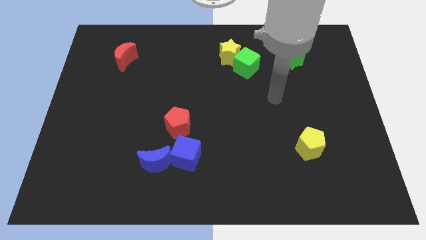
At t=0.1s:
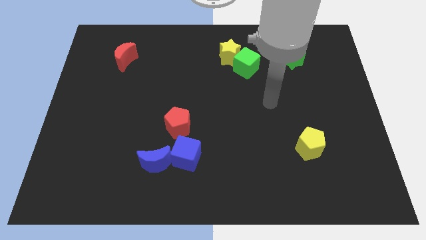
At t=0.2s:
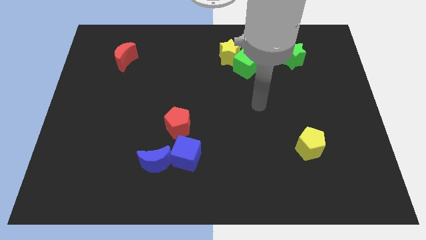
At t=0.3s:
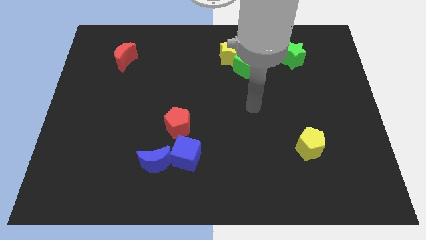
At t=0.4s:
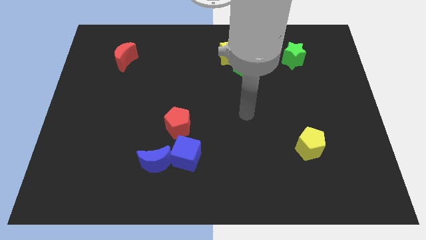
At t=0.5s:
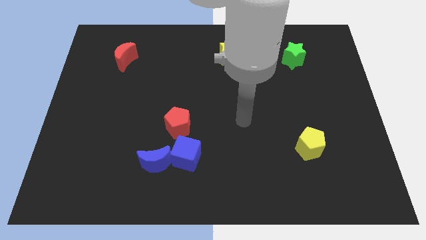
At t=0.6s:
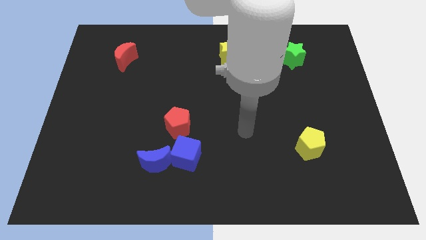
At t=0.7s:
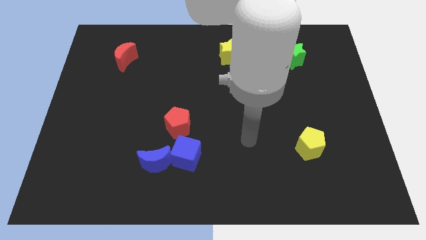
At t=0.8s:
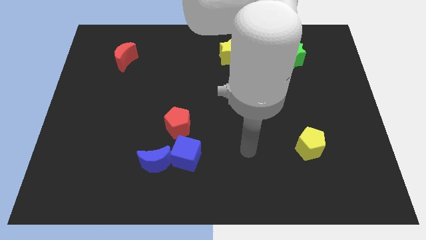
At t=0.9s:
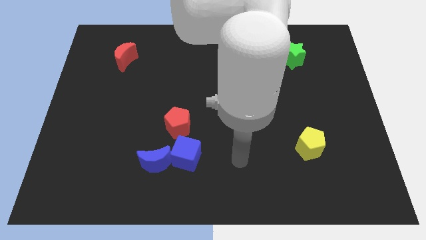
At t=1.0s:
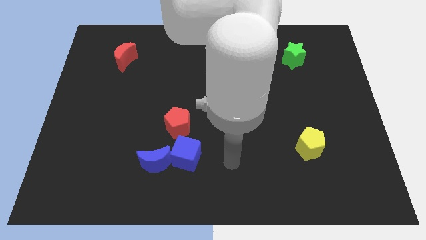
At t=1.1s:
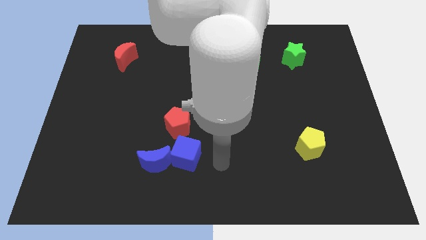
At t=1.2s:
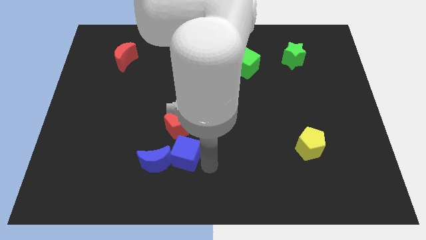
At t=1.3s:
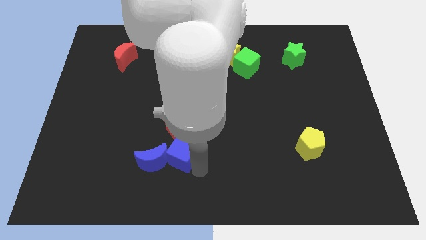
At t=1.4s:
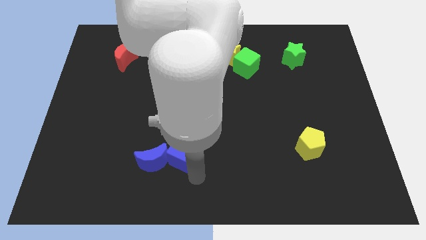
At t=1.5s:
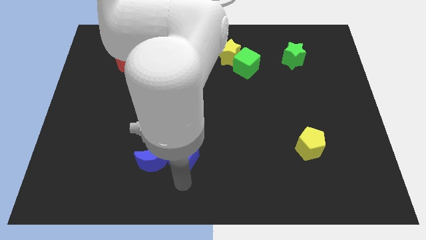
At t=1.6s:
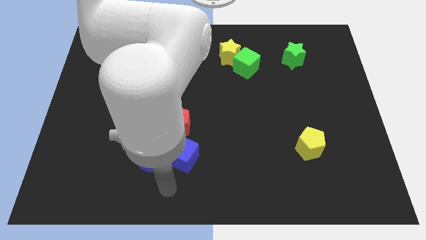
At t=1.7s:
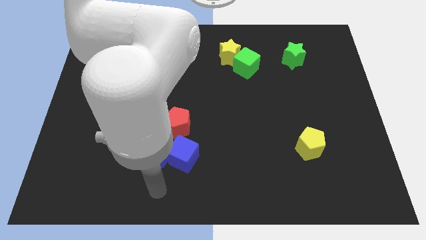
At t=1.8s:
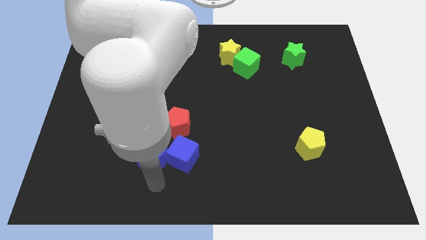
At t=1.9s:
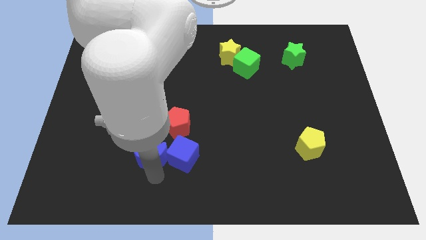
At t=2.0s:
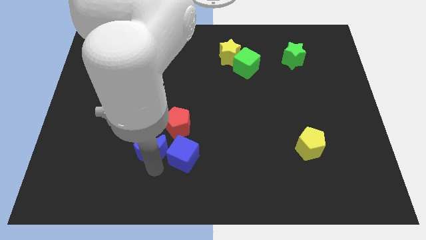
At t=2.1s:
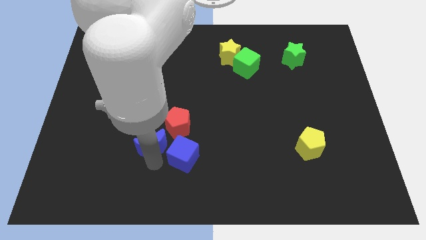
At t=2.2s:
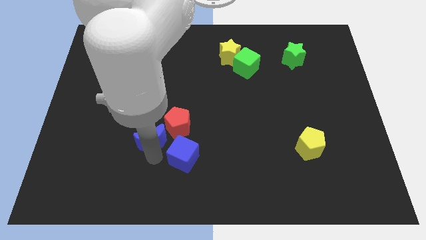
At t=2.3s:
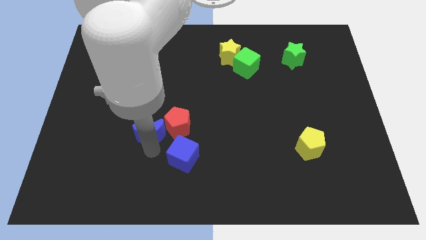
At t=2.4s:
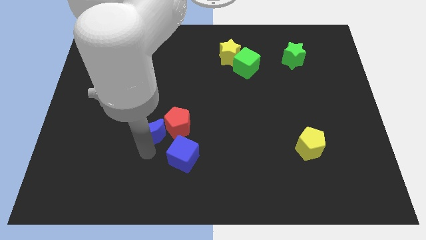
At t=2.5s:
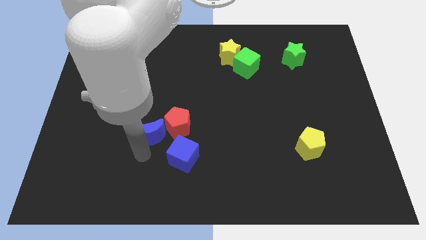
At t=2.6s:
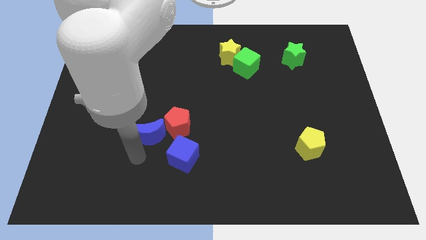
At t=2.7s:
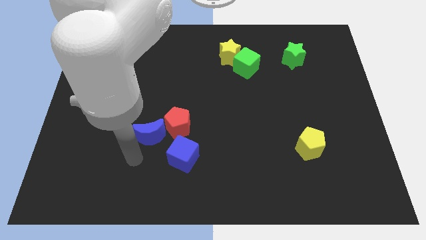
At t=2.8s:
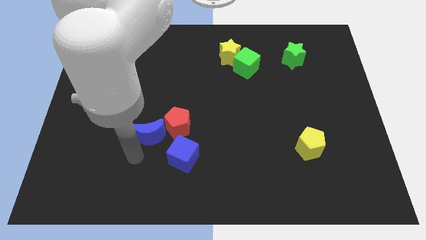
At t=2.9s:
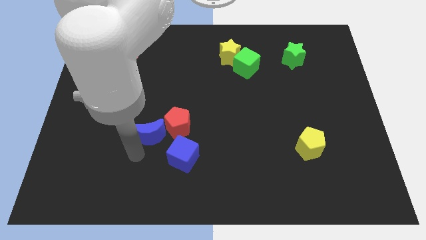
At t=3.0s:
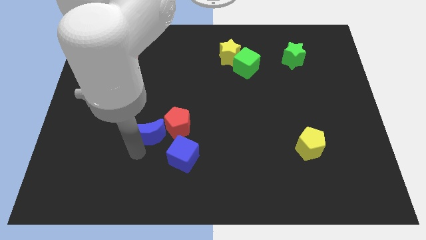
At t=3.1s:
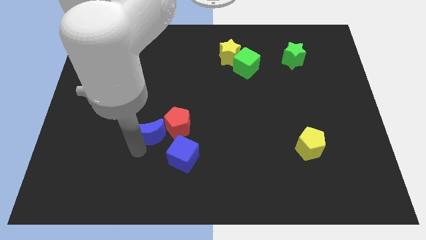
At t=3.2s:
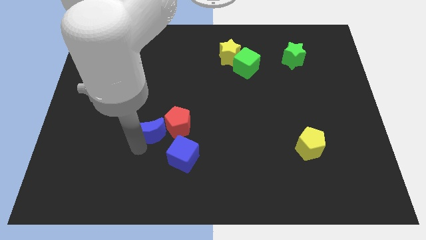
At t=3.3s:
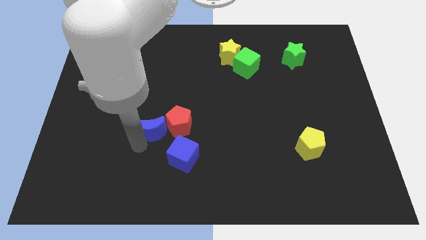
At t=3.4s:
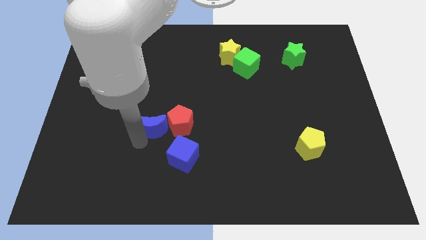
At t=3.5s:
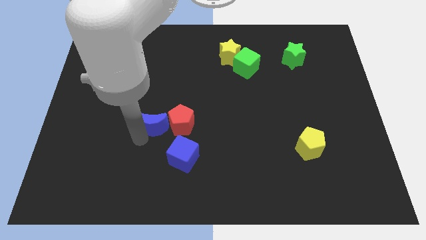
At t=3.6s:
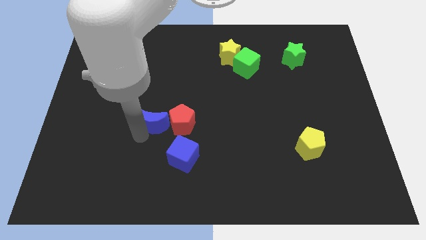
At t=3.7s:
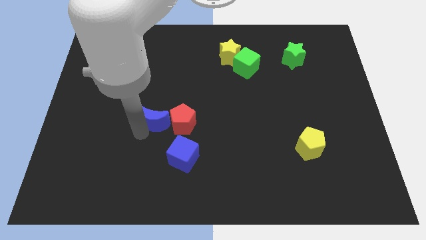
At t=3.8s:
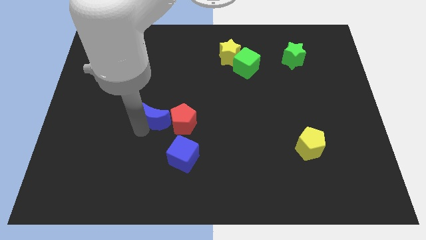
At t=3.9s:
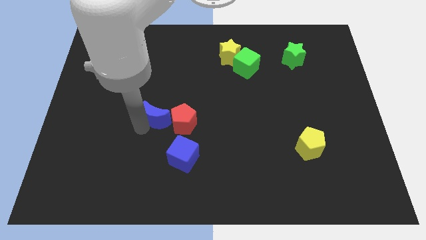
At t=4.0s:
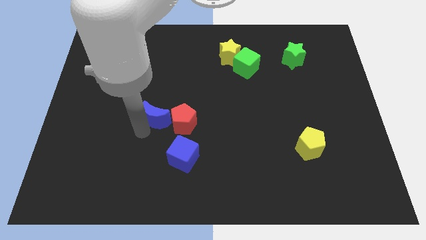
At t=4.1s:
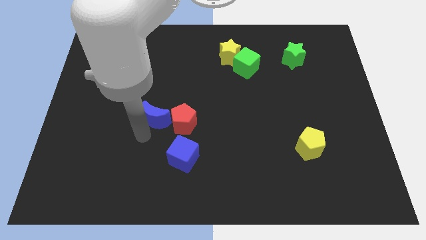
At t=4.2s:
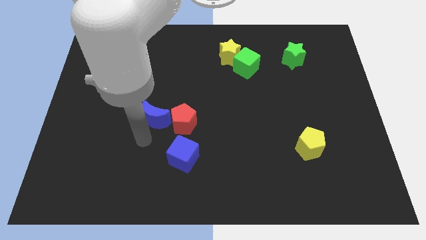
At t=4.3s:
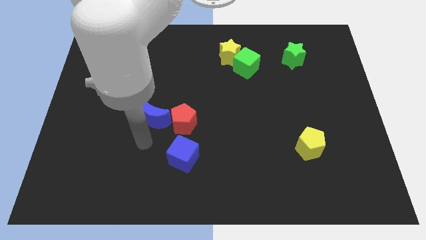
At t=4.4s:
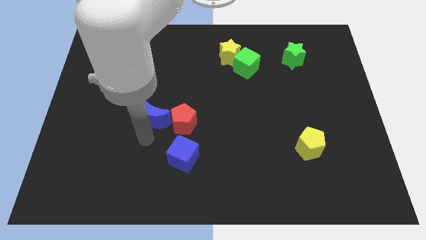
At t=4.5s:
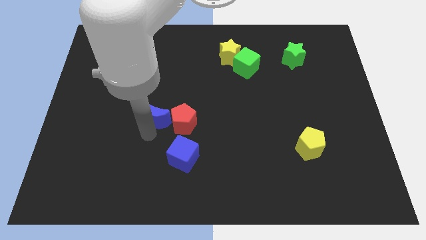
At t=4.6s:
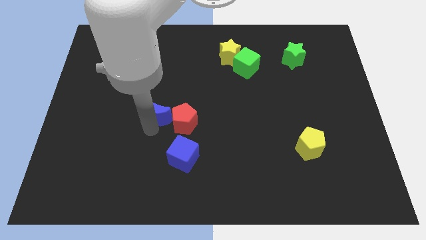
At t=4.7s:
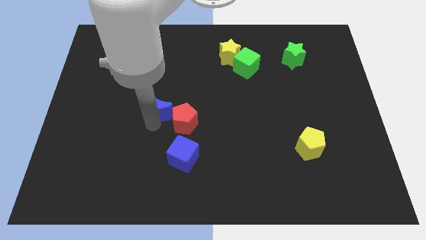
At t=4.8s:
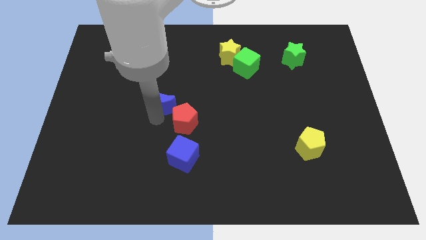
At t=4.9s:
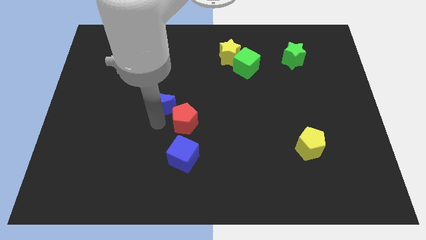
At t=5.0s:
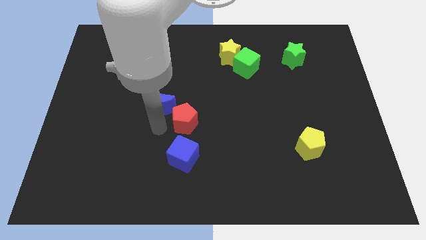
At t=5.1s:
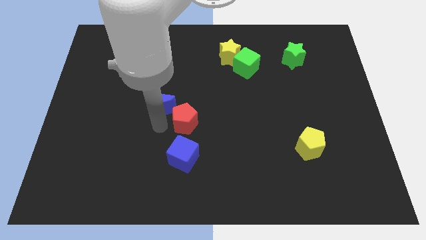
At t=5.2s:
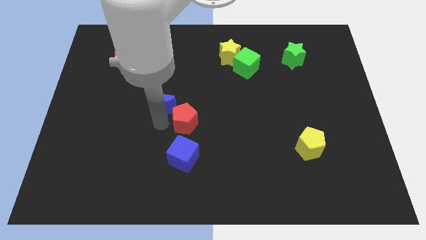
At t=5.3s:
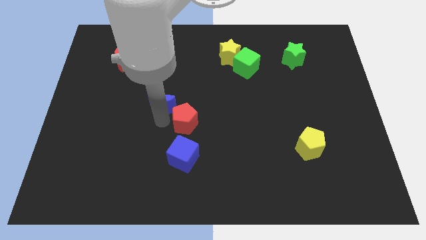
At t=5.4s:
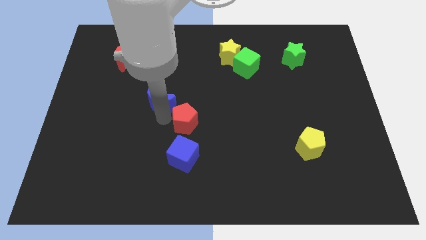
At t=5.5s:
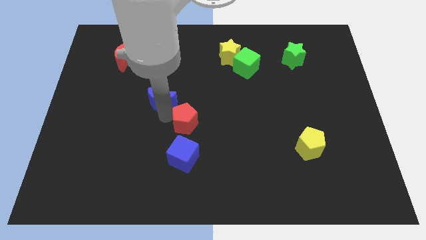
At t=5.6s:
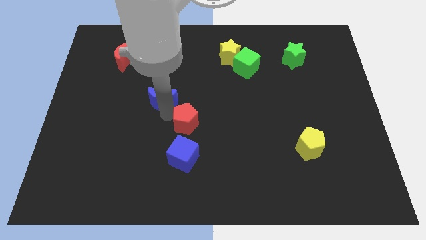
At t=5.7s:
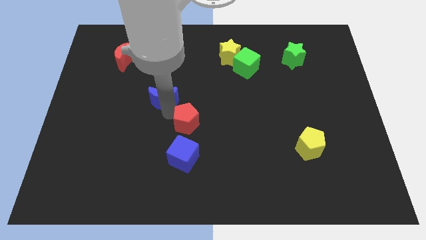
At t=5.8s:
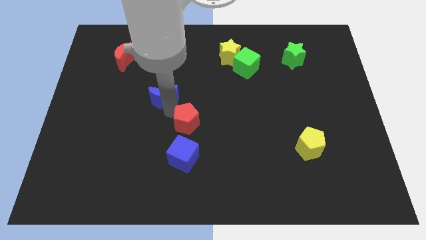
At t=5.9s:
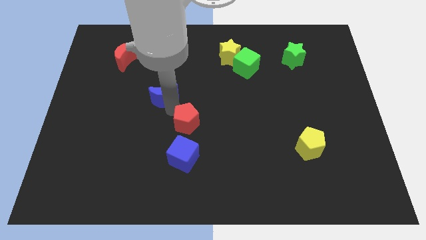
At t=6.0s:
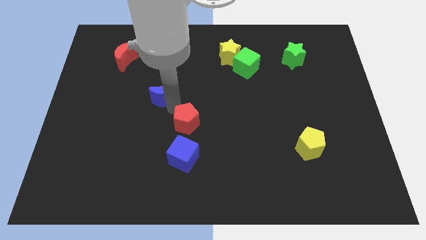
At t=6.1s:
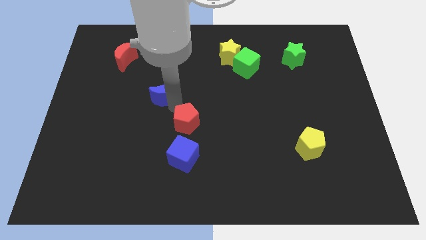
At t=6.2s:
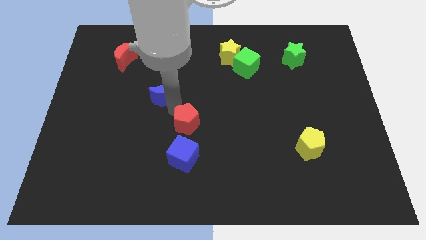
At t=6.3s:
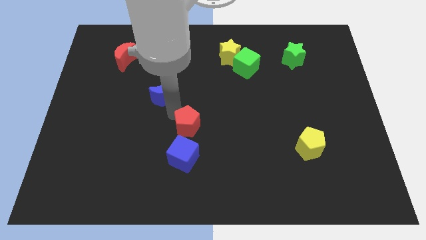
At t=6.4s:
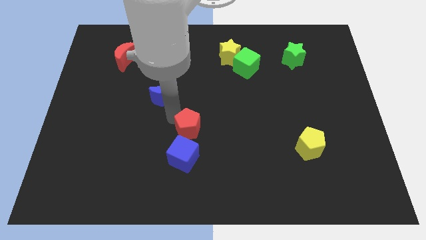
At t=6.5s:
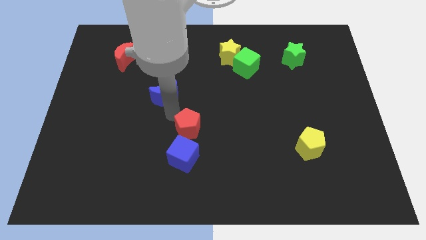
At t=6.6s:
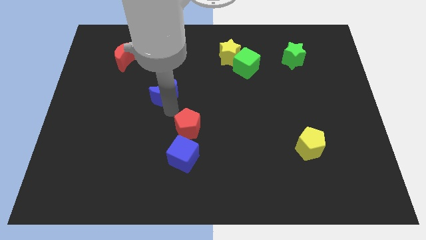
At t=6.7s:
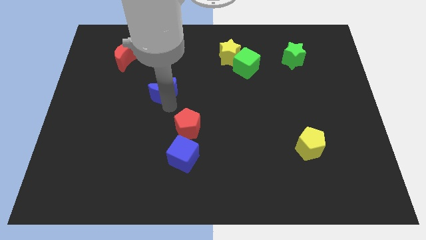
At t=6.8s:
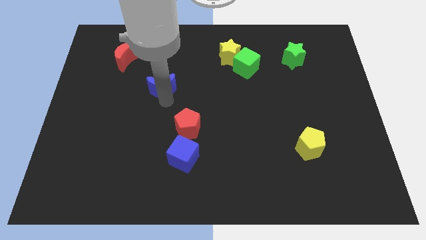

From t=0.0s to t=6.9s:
push the blue moon upwards

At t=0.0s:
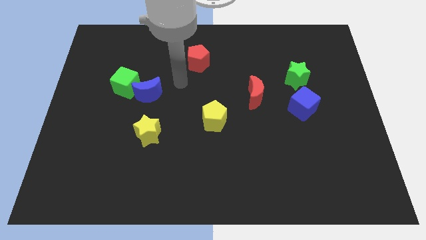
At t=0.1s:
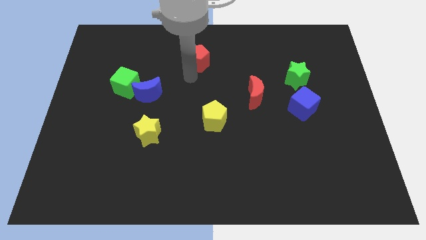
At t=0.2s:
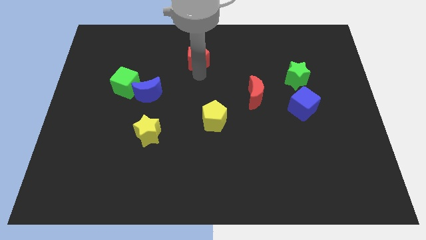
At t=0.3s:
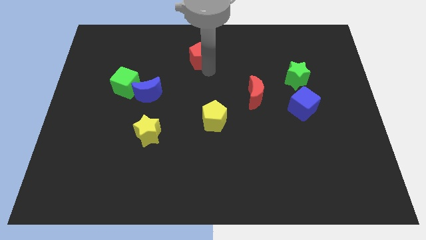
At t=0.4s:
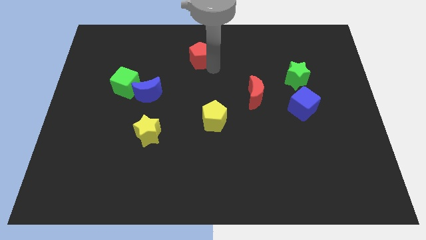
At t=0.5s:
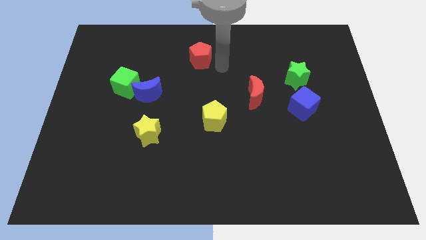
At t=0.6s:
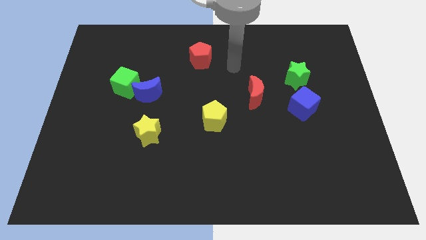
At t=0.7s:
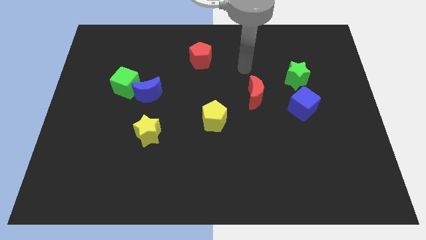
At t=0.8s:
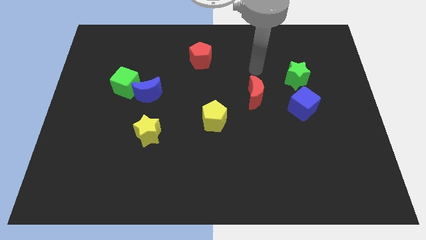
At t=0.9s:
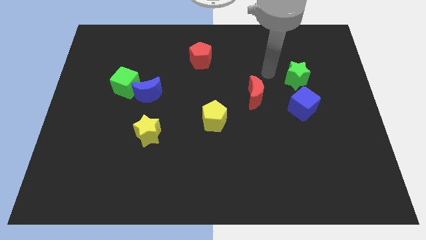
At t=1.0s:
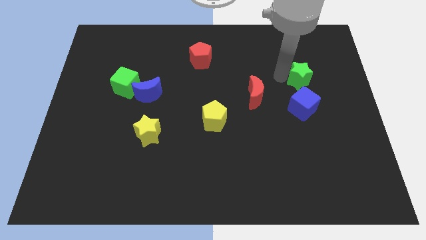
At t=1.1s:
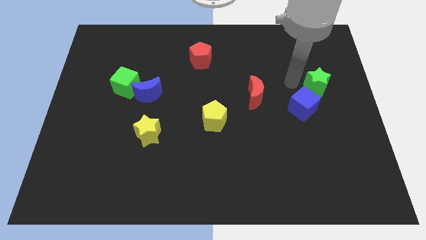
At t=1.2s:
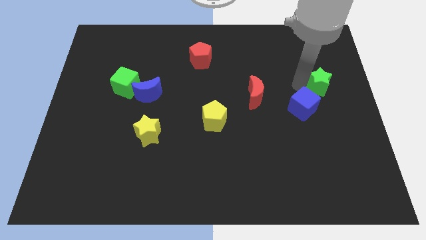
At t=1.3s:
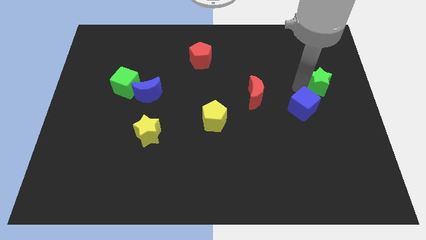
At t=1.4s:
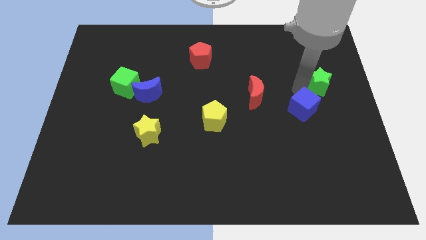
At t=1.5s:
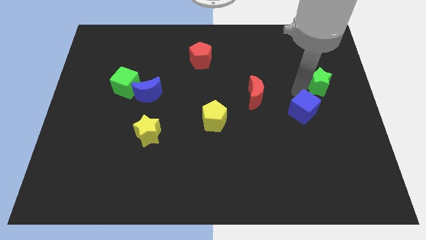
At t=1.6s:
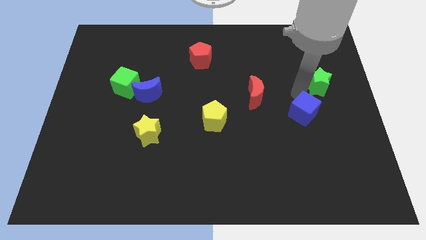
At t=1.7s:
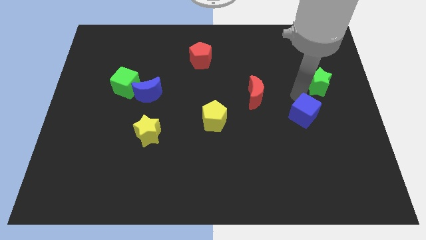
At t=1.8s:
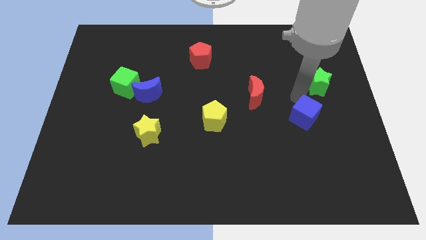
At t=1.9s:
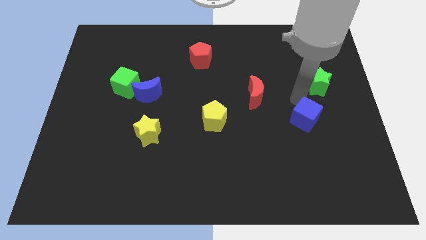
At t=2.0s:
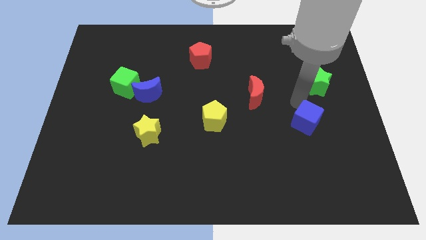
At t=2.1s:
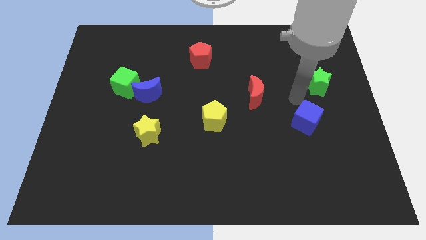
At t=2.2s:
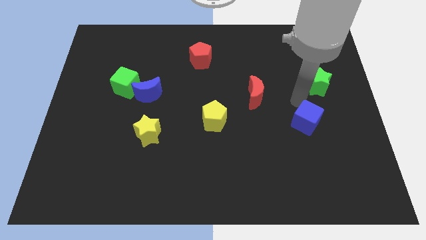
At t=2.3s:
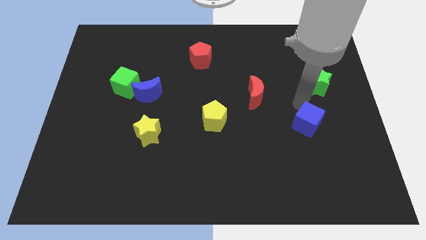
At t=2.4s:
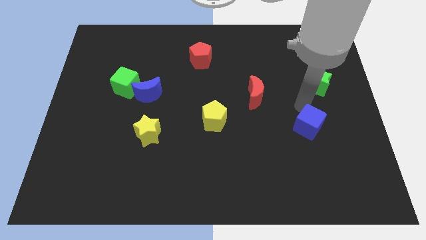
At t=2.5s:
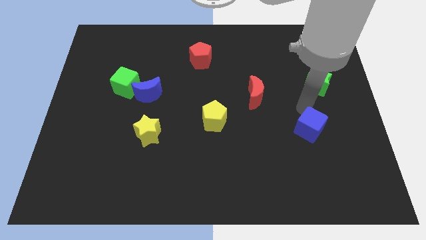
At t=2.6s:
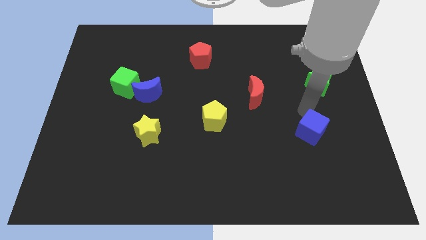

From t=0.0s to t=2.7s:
slightly slide the blue cube downwards
